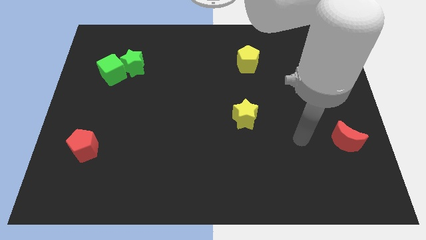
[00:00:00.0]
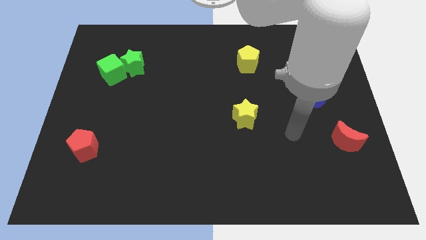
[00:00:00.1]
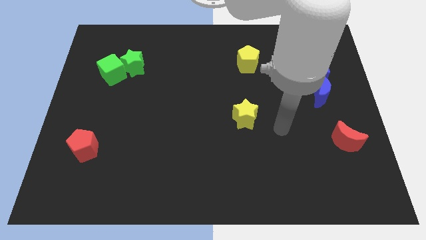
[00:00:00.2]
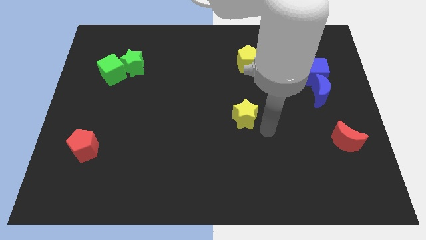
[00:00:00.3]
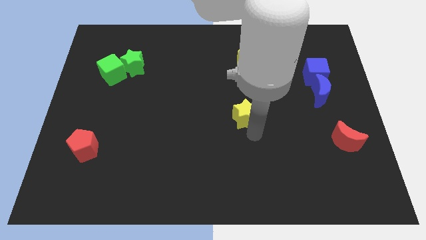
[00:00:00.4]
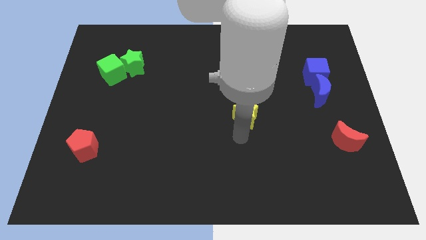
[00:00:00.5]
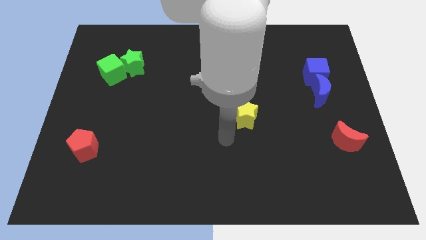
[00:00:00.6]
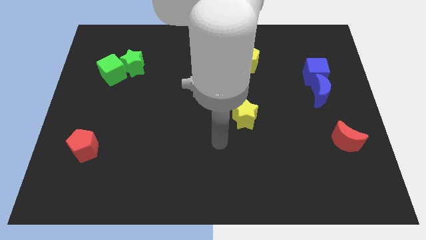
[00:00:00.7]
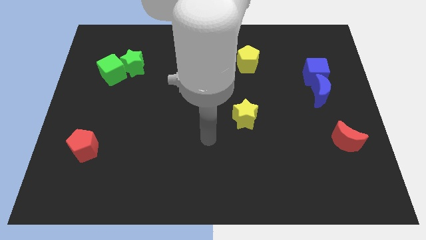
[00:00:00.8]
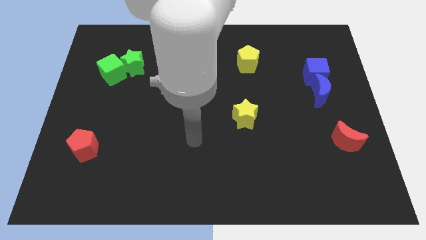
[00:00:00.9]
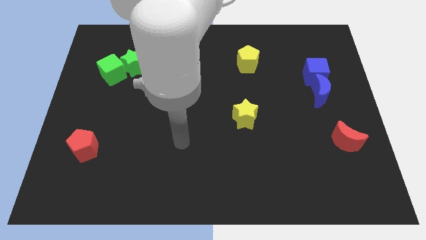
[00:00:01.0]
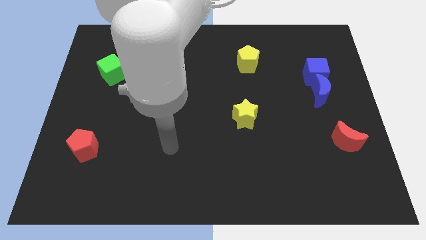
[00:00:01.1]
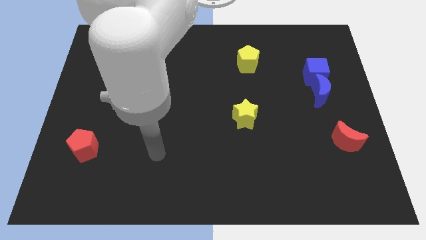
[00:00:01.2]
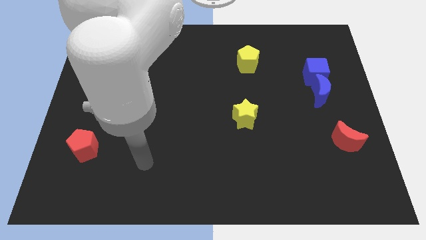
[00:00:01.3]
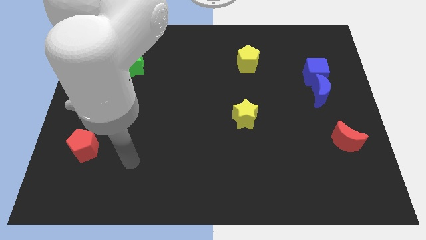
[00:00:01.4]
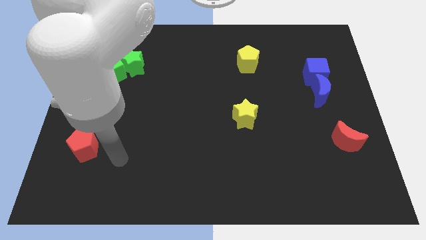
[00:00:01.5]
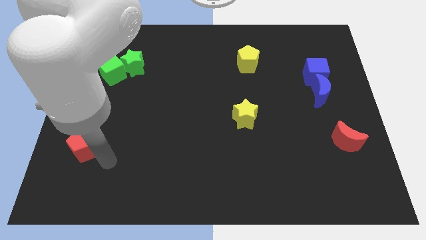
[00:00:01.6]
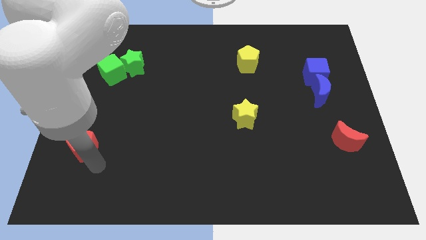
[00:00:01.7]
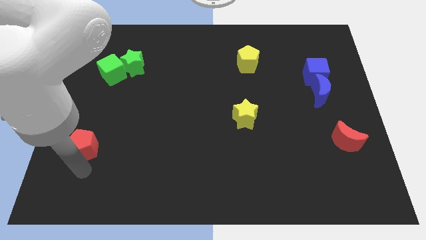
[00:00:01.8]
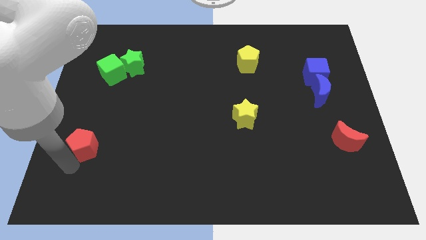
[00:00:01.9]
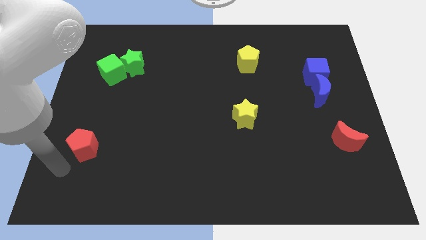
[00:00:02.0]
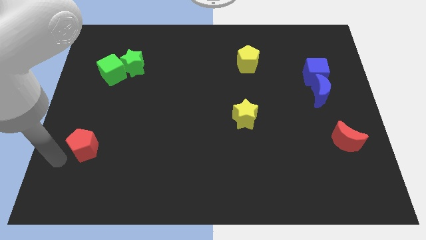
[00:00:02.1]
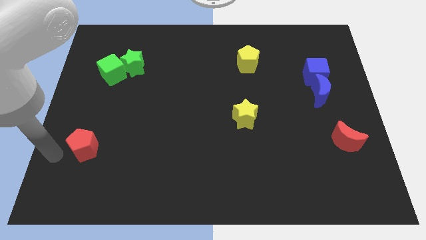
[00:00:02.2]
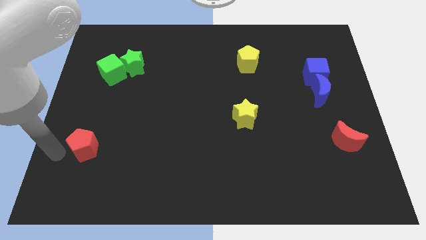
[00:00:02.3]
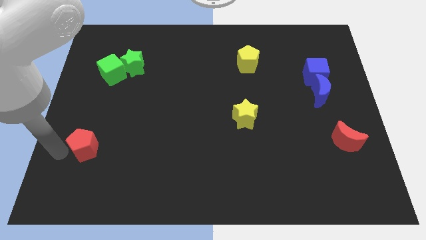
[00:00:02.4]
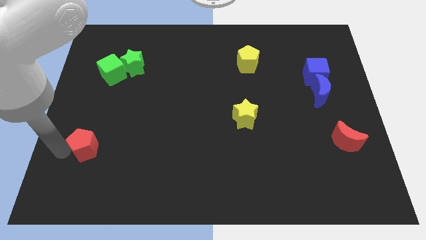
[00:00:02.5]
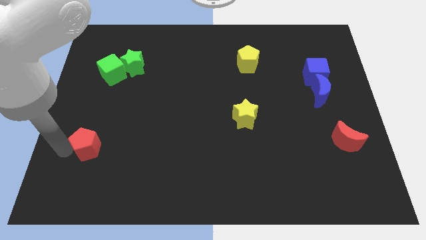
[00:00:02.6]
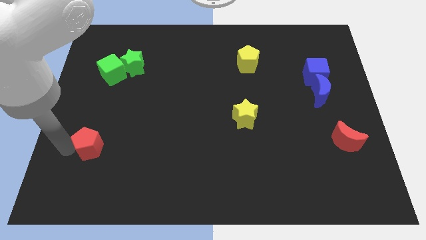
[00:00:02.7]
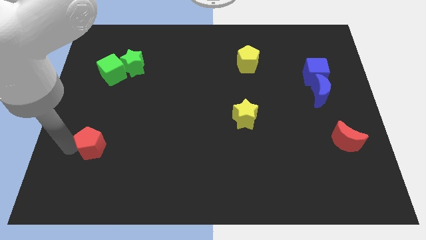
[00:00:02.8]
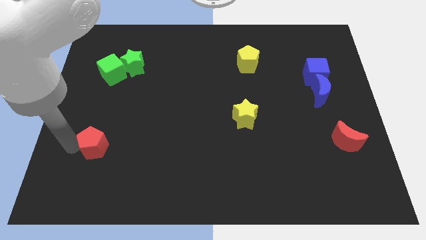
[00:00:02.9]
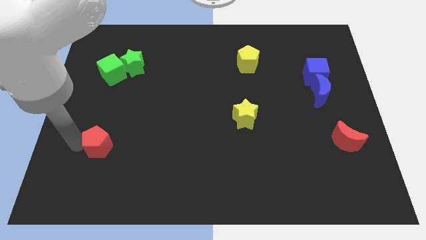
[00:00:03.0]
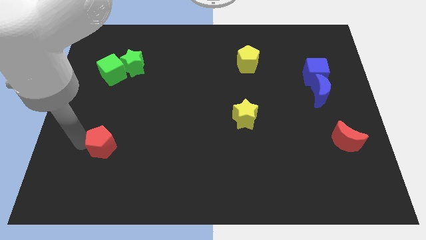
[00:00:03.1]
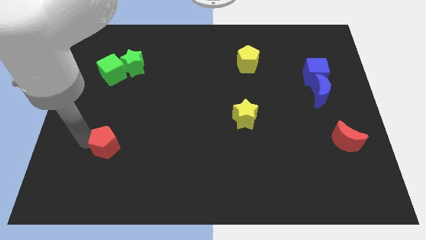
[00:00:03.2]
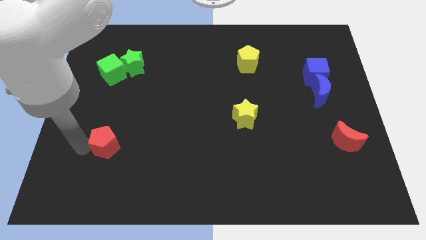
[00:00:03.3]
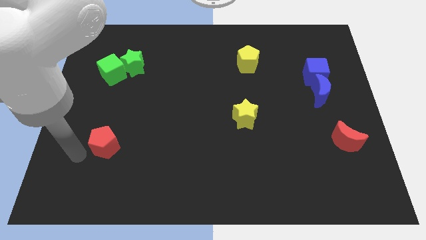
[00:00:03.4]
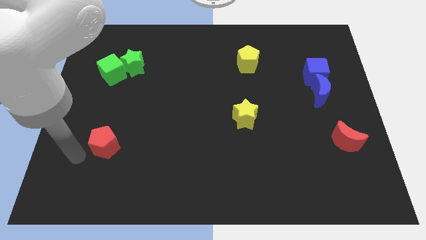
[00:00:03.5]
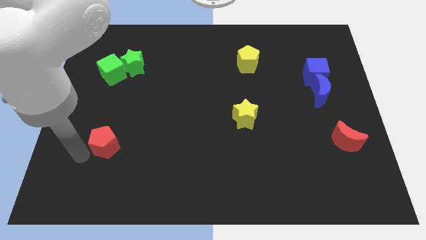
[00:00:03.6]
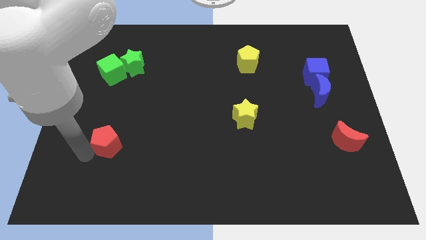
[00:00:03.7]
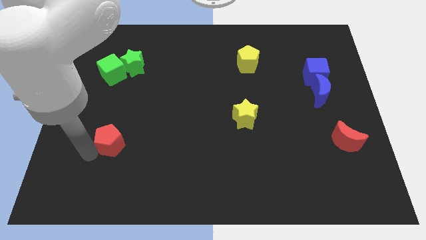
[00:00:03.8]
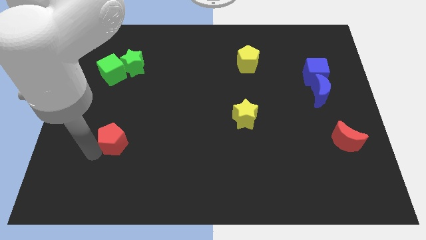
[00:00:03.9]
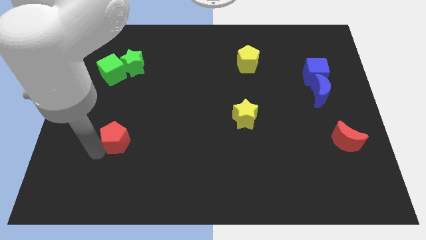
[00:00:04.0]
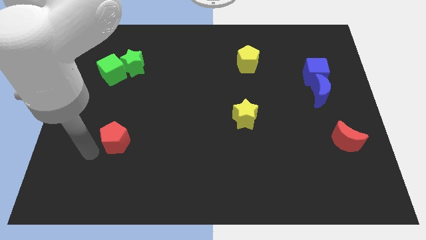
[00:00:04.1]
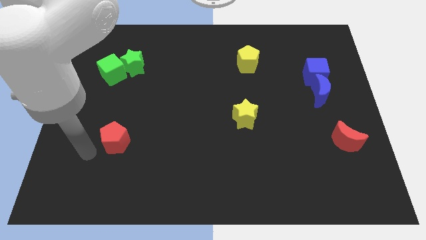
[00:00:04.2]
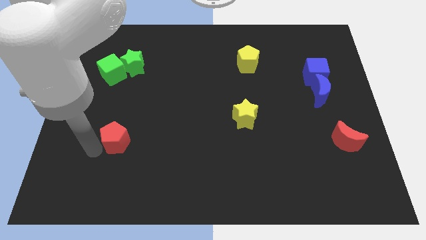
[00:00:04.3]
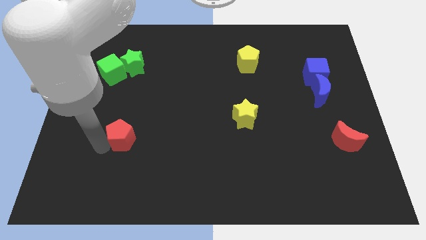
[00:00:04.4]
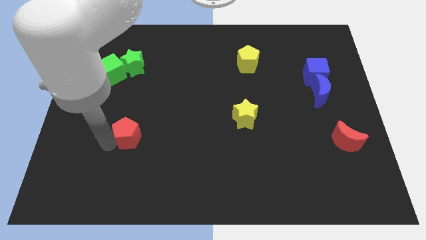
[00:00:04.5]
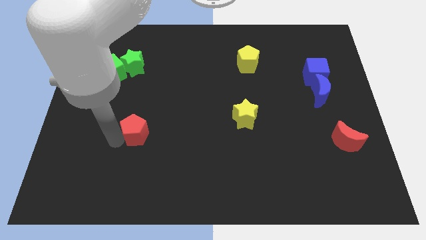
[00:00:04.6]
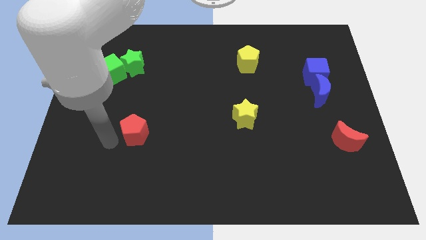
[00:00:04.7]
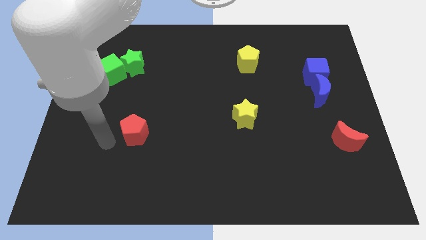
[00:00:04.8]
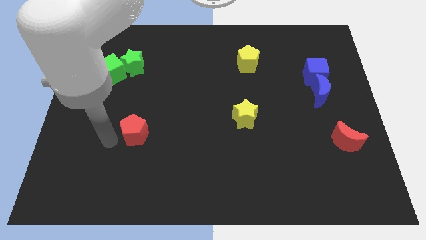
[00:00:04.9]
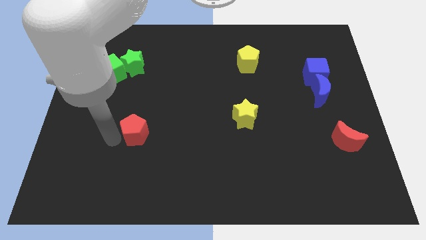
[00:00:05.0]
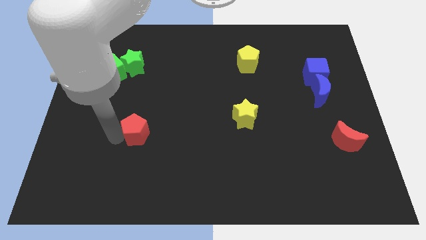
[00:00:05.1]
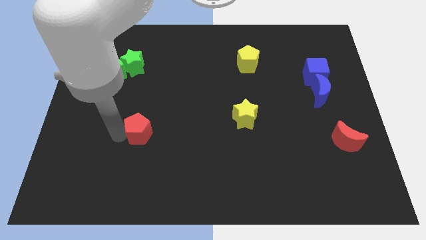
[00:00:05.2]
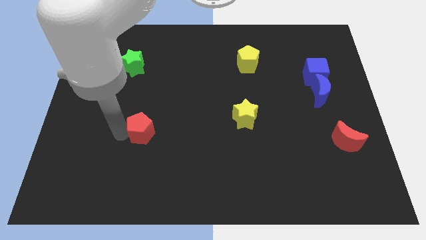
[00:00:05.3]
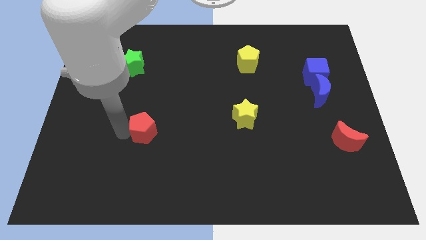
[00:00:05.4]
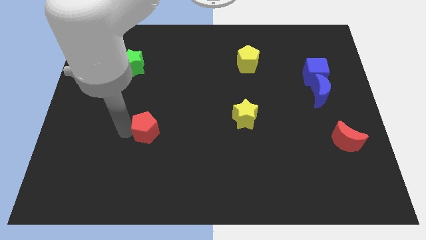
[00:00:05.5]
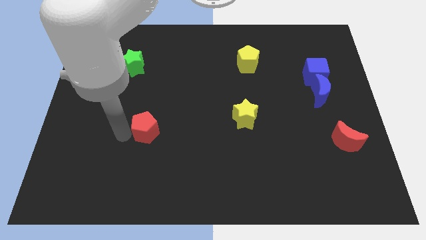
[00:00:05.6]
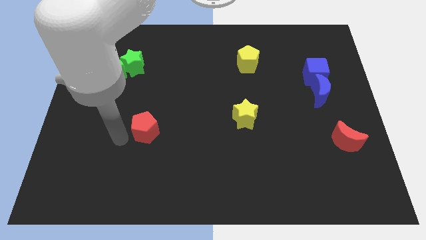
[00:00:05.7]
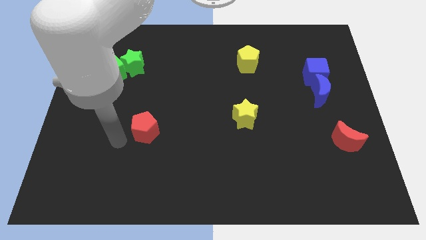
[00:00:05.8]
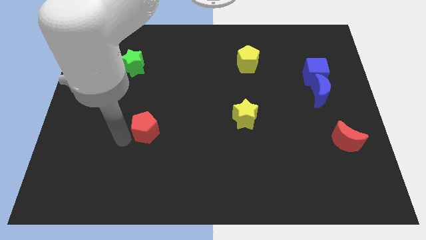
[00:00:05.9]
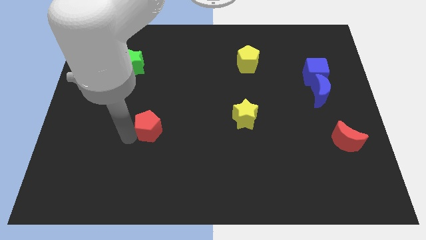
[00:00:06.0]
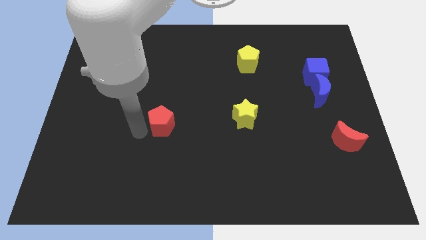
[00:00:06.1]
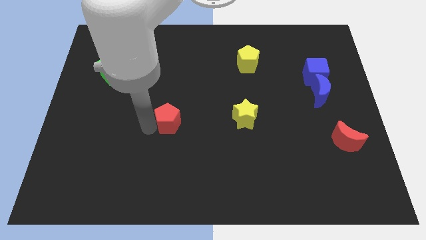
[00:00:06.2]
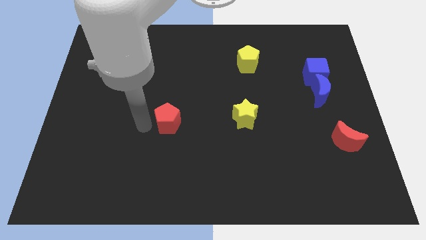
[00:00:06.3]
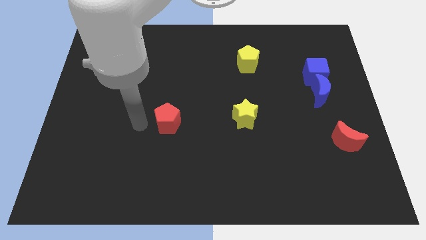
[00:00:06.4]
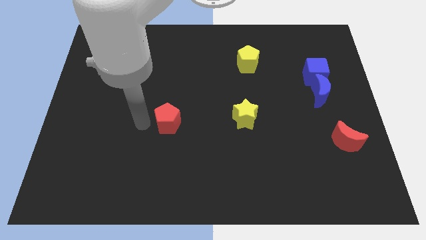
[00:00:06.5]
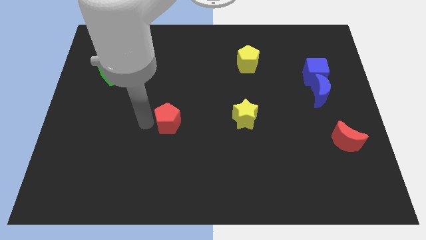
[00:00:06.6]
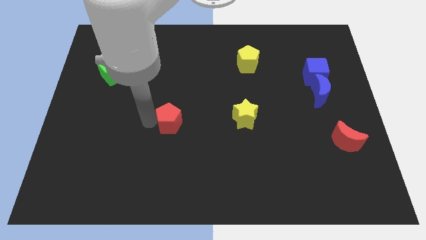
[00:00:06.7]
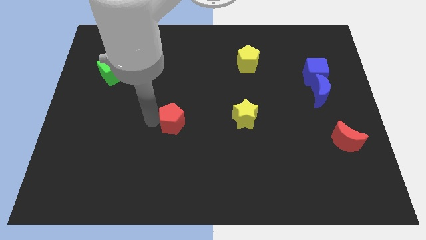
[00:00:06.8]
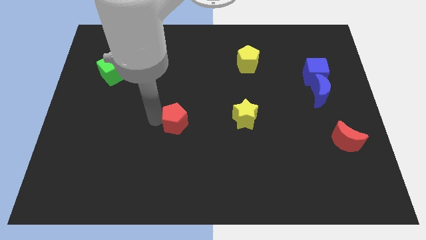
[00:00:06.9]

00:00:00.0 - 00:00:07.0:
push the red pentagon left of the yellow star
